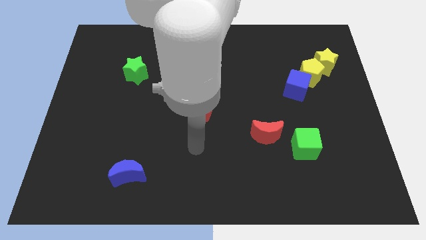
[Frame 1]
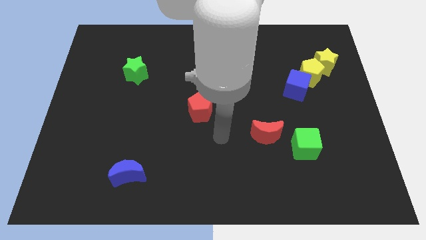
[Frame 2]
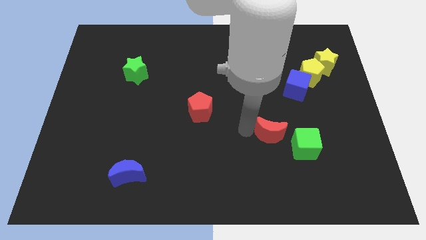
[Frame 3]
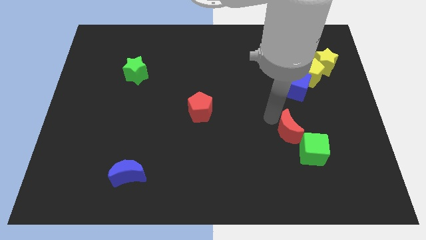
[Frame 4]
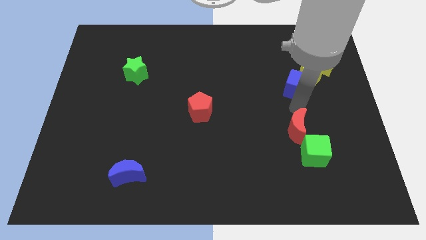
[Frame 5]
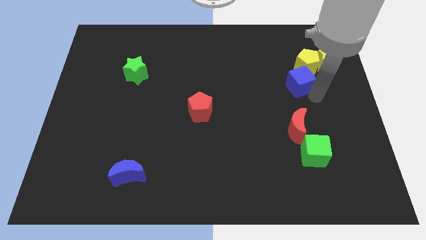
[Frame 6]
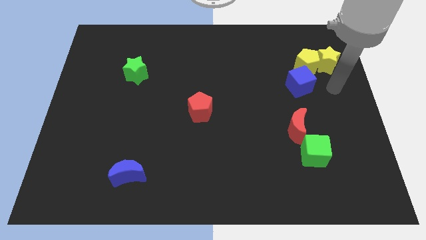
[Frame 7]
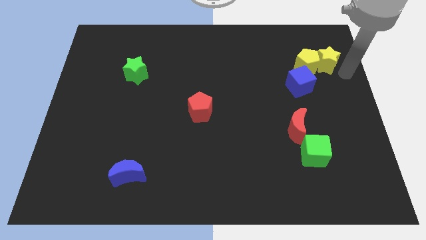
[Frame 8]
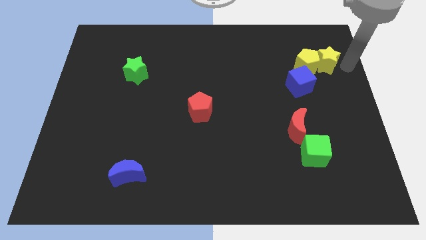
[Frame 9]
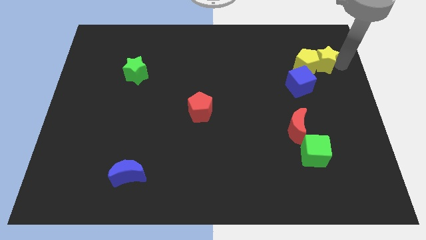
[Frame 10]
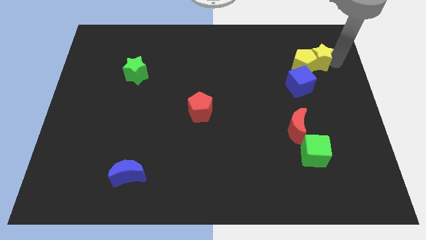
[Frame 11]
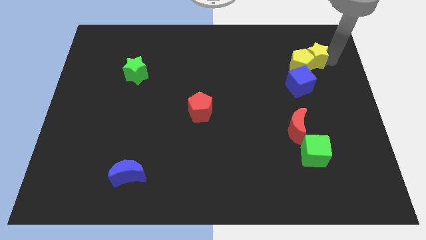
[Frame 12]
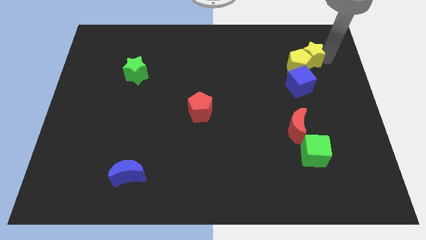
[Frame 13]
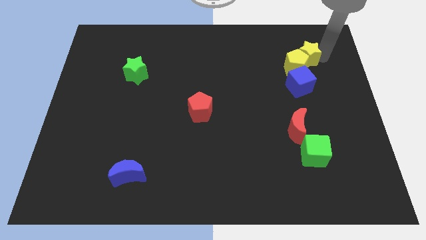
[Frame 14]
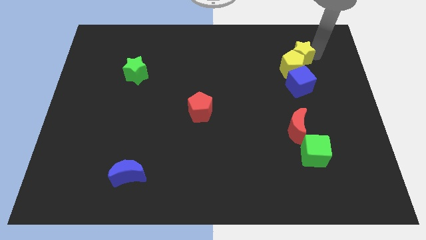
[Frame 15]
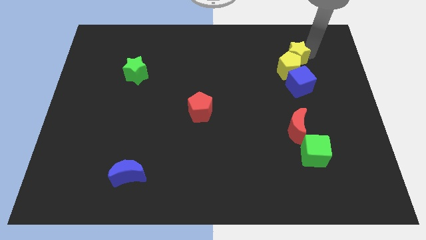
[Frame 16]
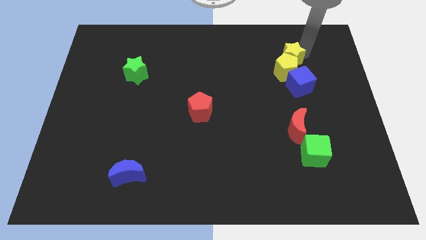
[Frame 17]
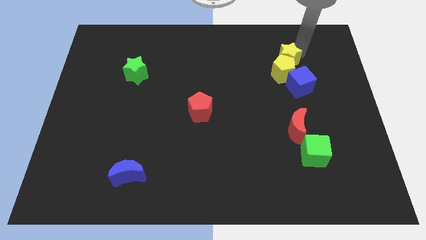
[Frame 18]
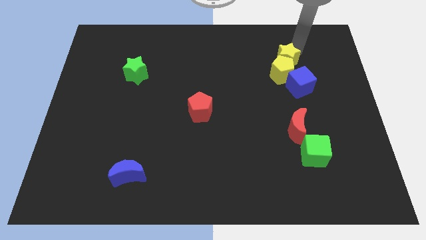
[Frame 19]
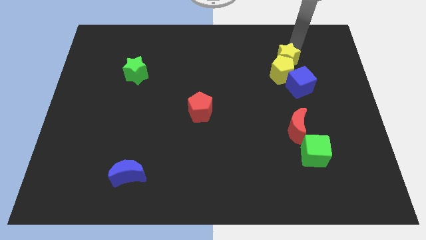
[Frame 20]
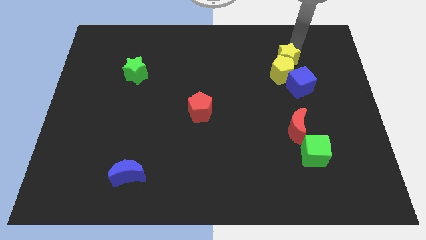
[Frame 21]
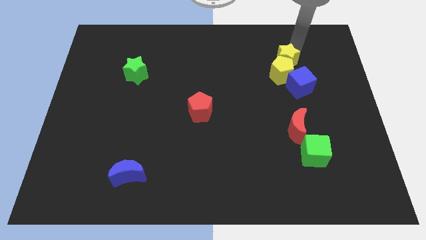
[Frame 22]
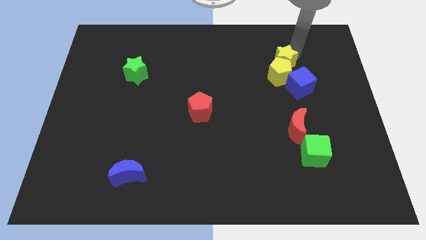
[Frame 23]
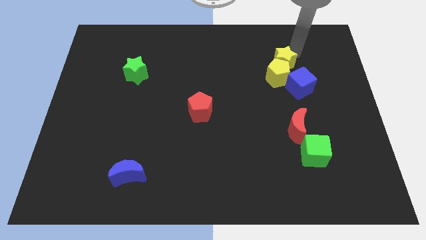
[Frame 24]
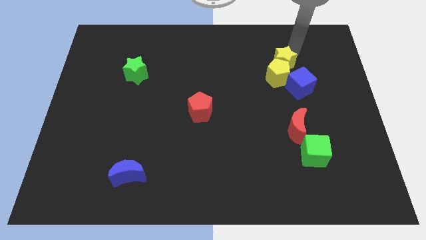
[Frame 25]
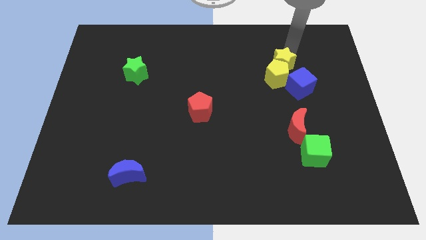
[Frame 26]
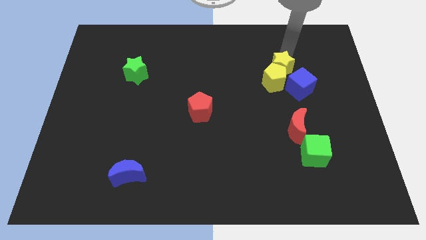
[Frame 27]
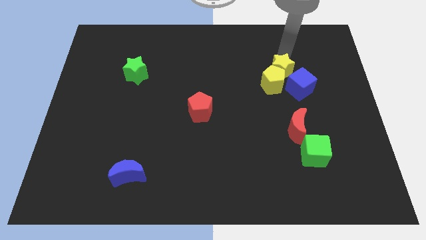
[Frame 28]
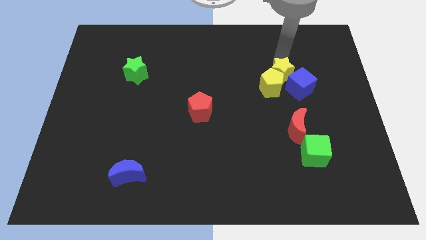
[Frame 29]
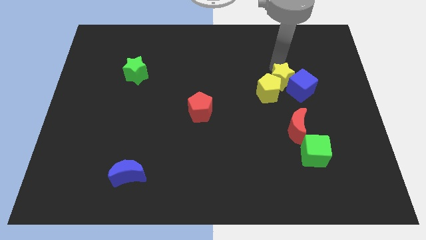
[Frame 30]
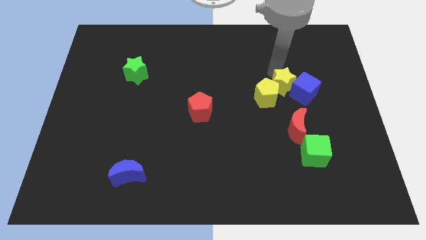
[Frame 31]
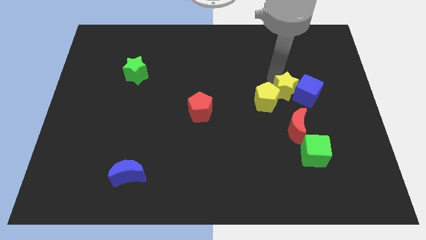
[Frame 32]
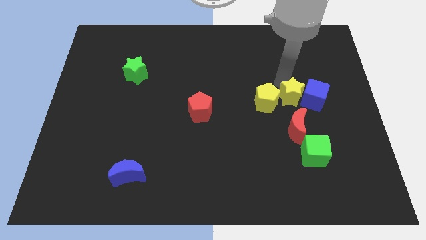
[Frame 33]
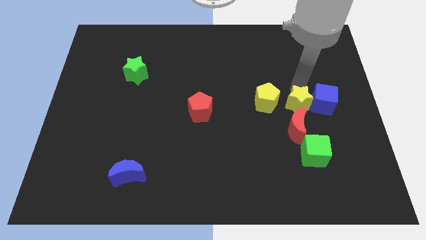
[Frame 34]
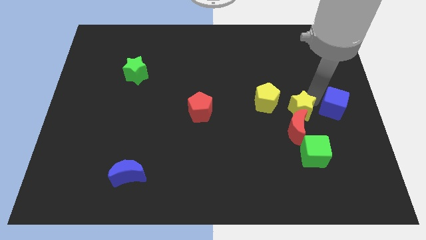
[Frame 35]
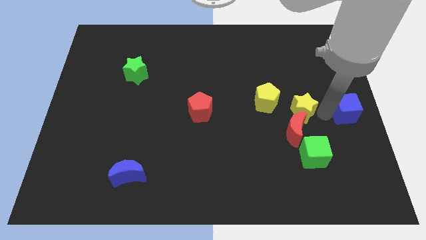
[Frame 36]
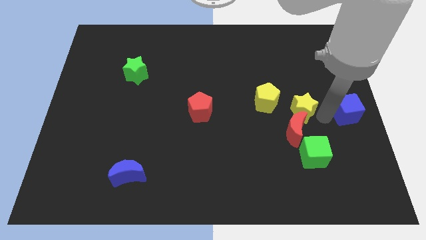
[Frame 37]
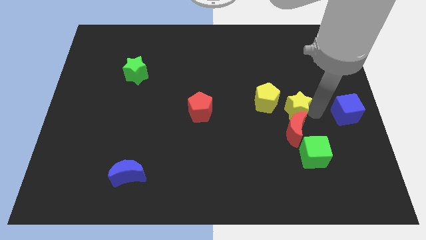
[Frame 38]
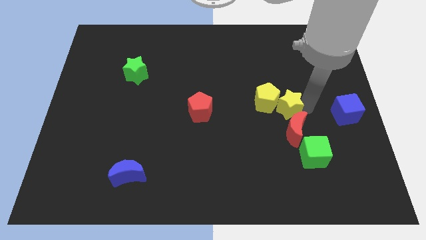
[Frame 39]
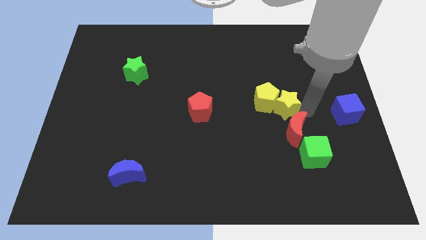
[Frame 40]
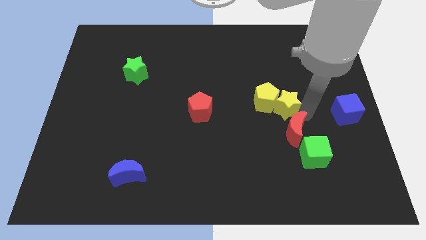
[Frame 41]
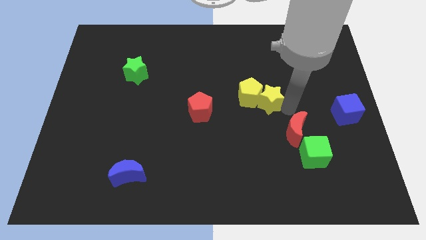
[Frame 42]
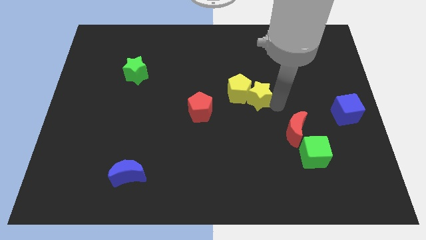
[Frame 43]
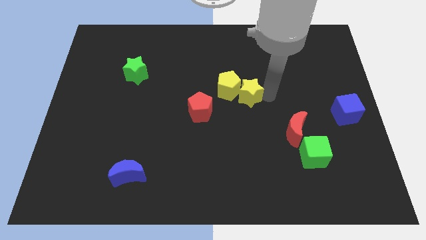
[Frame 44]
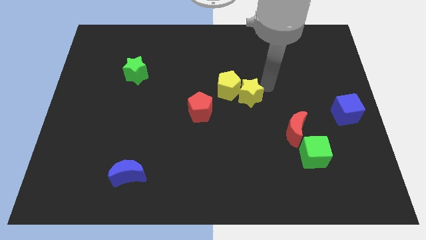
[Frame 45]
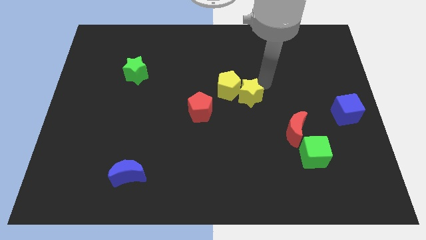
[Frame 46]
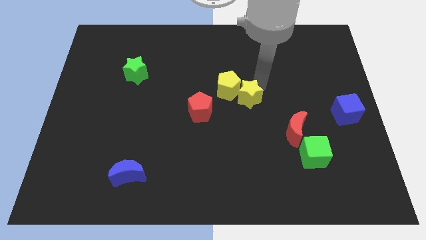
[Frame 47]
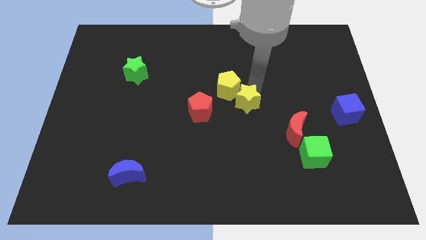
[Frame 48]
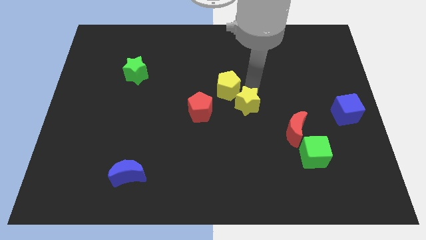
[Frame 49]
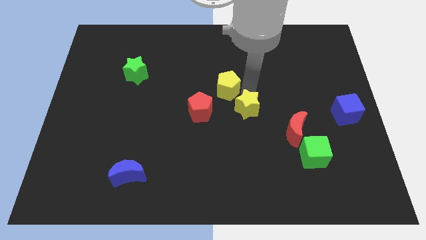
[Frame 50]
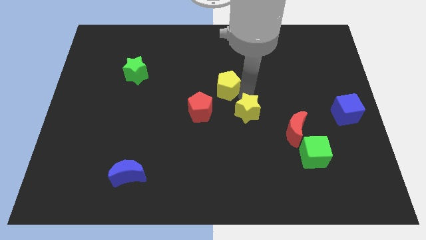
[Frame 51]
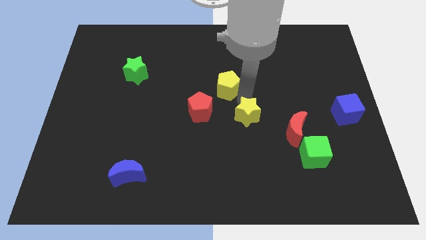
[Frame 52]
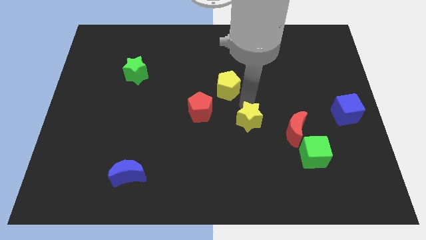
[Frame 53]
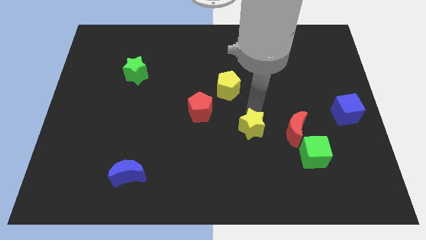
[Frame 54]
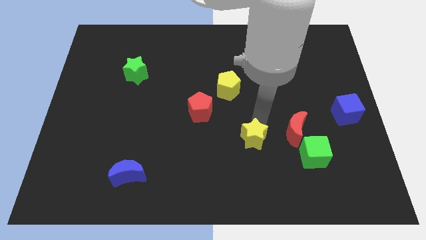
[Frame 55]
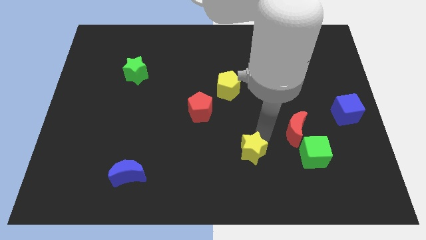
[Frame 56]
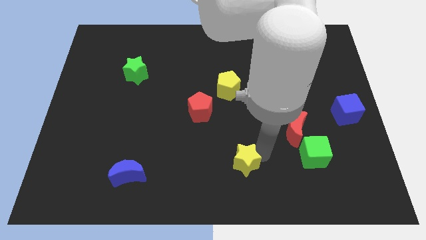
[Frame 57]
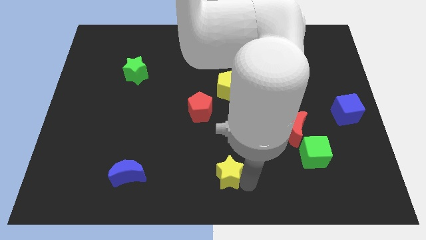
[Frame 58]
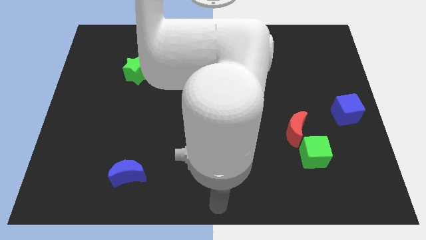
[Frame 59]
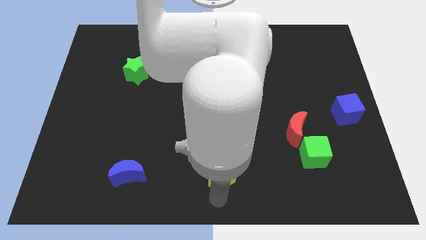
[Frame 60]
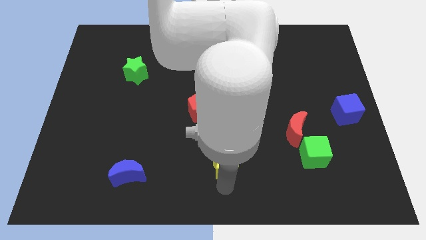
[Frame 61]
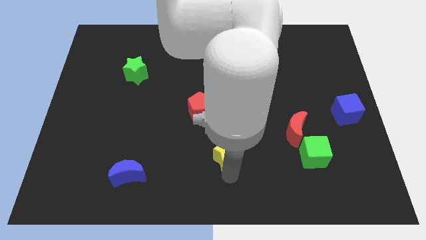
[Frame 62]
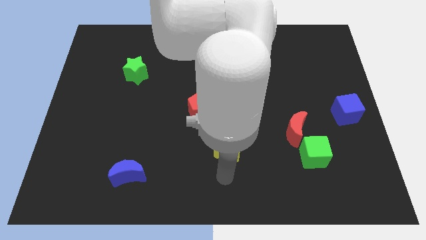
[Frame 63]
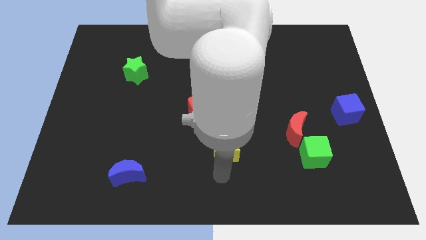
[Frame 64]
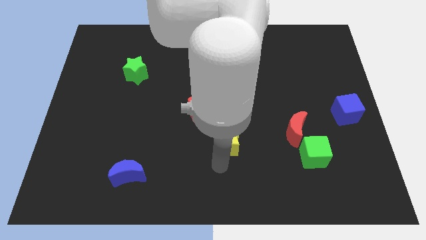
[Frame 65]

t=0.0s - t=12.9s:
move the yellow star diagonally down and to the right of the red pentagon

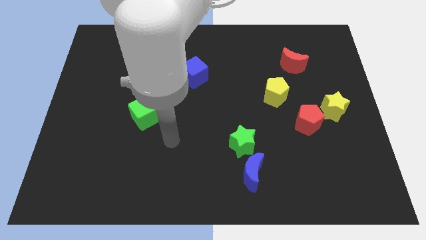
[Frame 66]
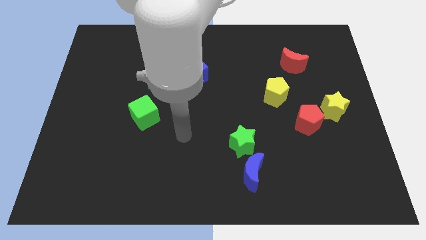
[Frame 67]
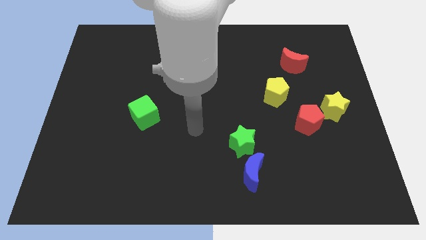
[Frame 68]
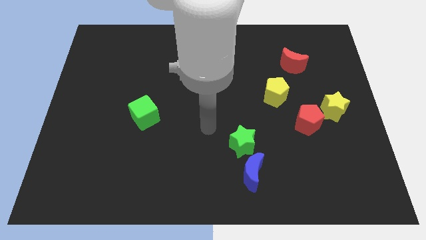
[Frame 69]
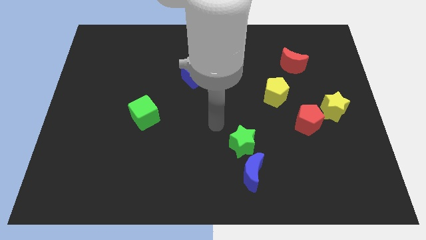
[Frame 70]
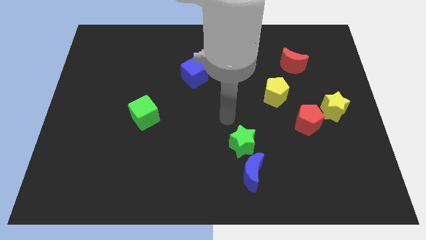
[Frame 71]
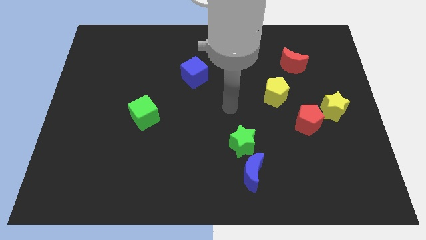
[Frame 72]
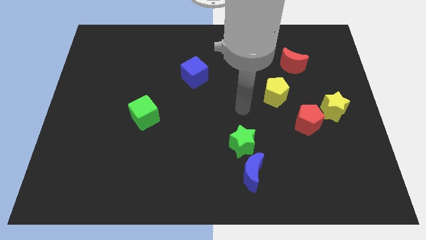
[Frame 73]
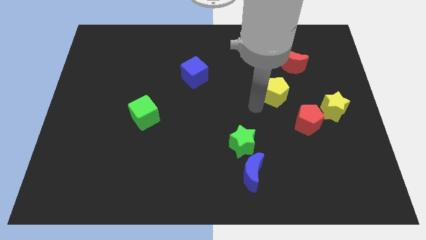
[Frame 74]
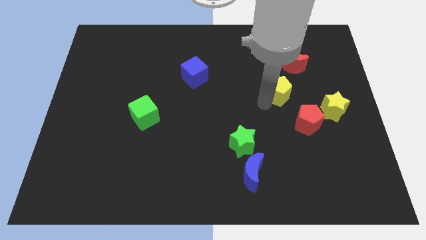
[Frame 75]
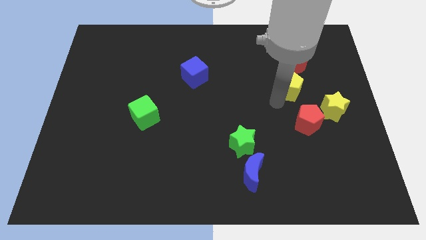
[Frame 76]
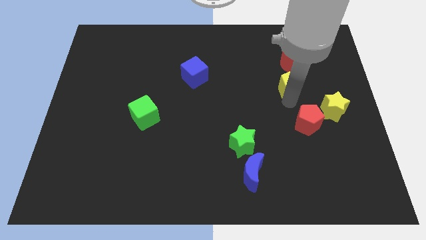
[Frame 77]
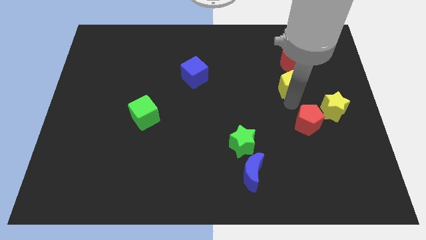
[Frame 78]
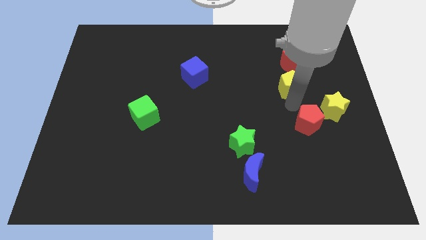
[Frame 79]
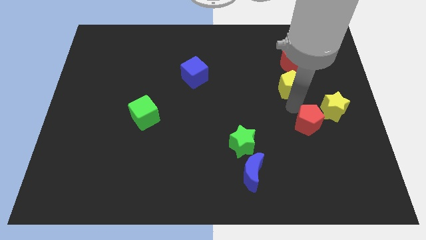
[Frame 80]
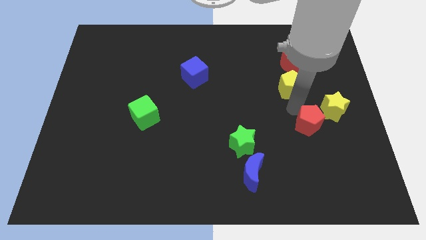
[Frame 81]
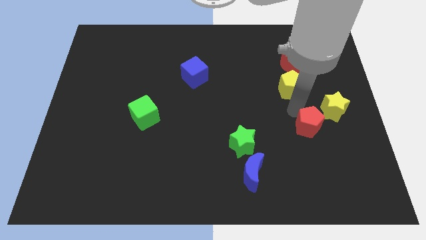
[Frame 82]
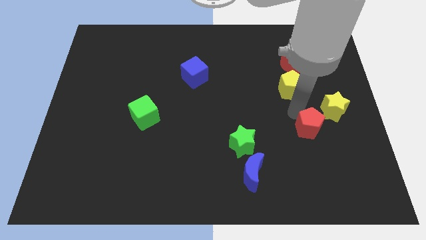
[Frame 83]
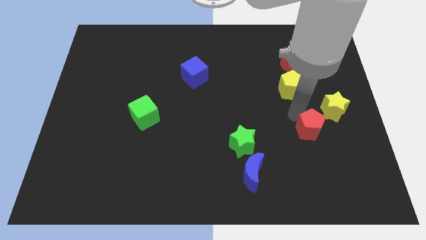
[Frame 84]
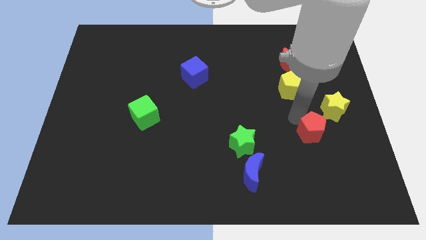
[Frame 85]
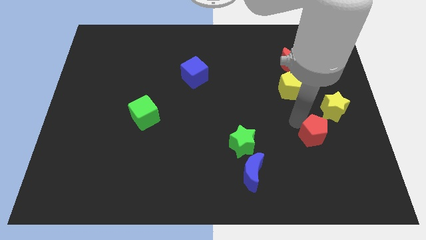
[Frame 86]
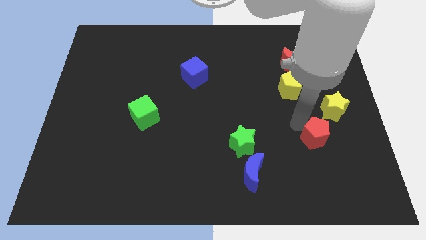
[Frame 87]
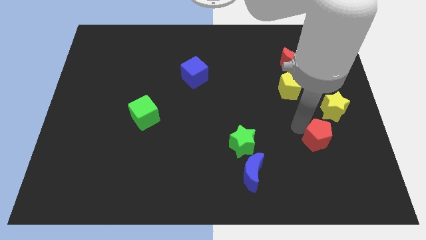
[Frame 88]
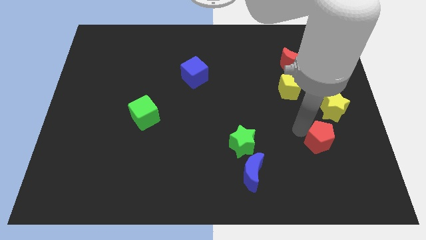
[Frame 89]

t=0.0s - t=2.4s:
move the red pentagon below the yellow star
